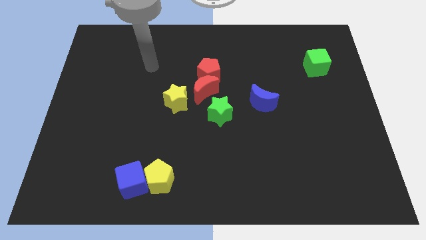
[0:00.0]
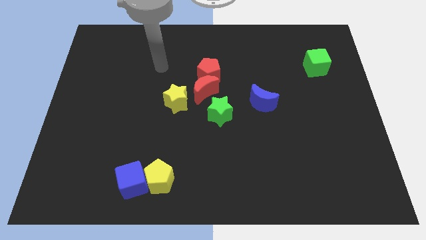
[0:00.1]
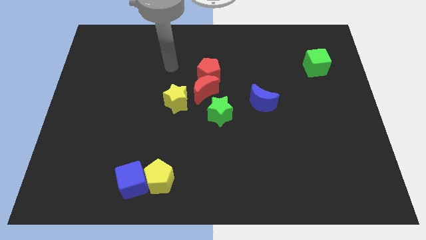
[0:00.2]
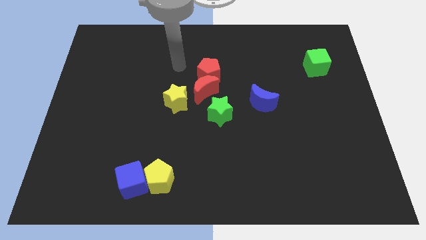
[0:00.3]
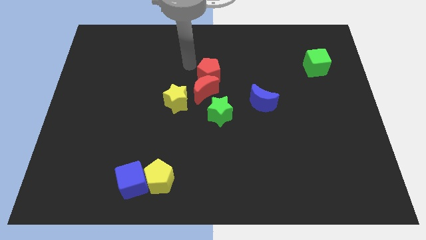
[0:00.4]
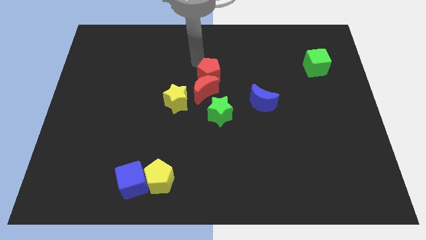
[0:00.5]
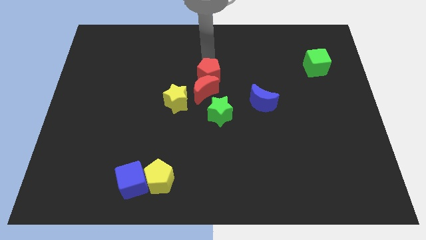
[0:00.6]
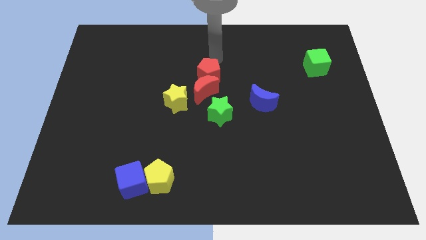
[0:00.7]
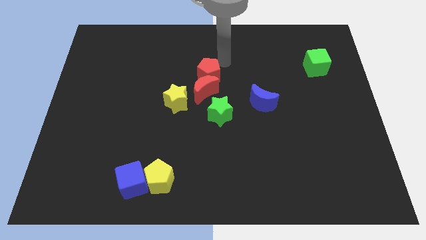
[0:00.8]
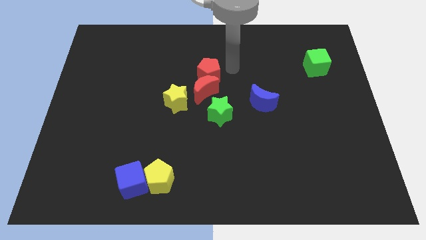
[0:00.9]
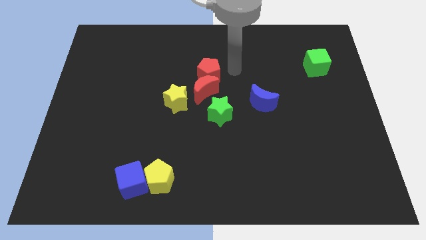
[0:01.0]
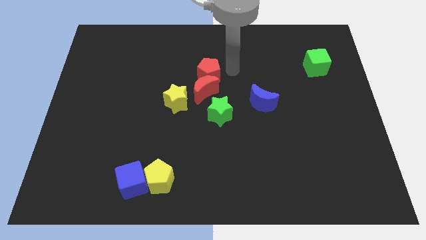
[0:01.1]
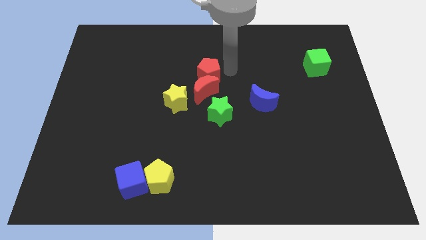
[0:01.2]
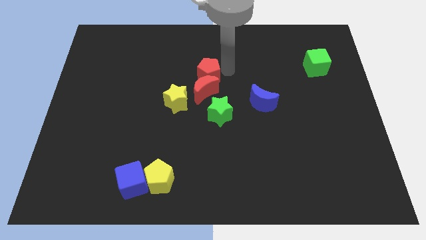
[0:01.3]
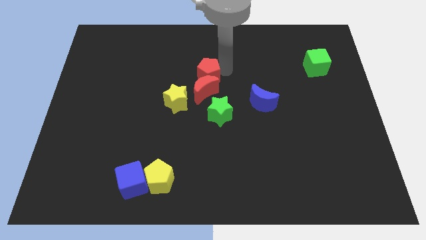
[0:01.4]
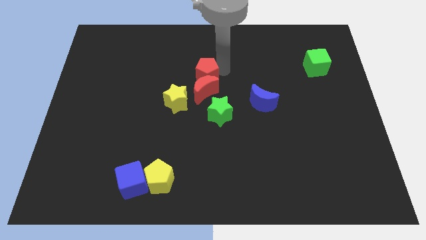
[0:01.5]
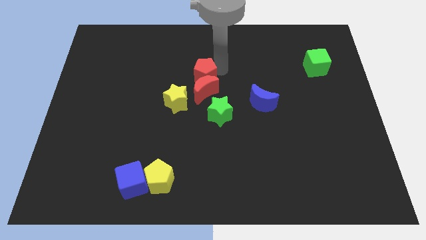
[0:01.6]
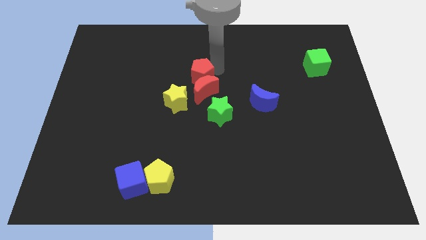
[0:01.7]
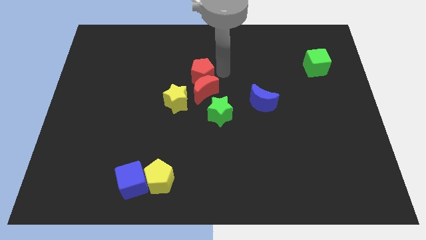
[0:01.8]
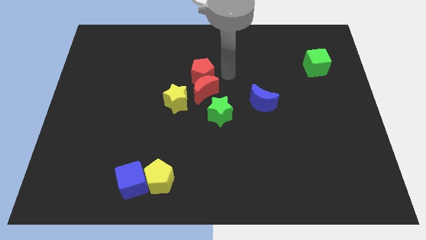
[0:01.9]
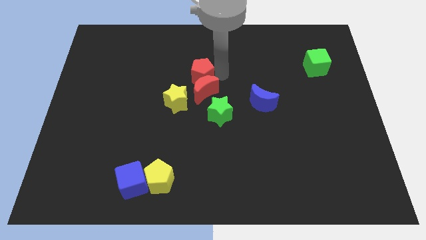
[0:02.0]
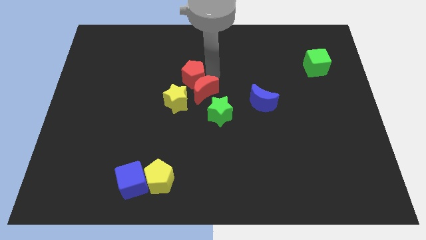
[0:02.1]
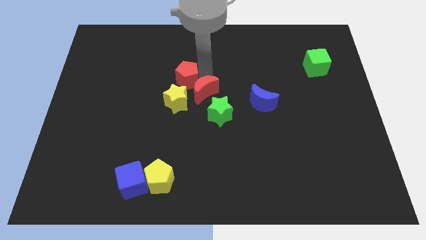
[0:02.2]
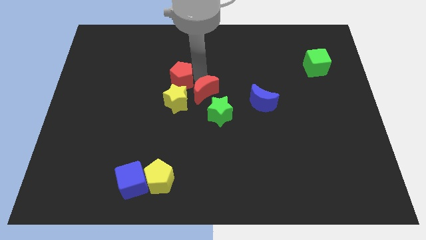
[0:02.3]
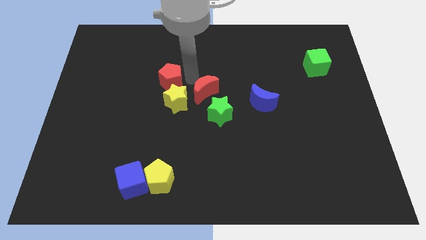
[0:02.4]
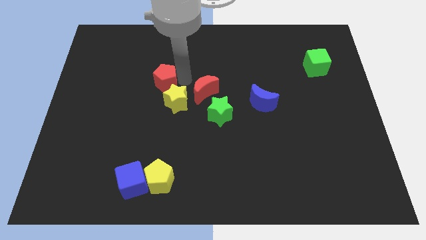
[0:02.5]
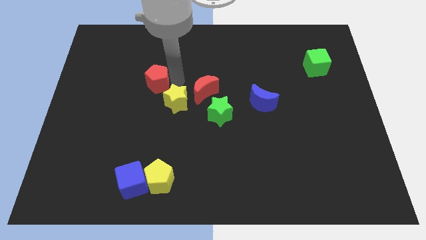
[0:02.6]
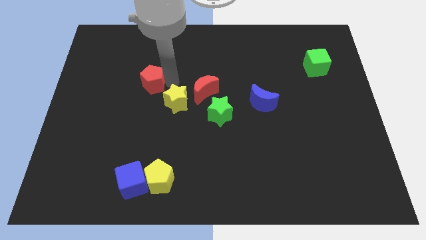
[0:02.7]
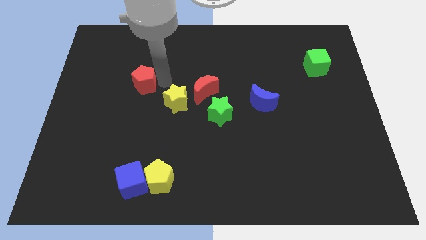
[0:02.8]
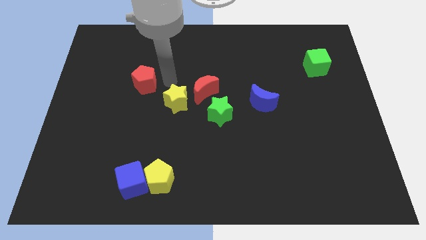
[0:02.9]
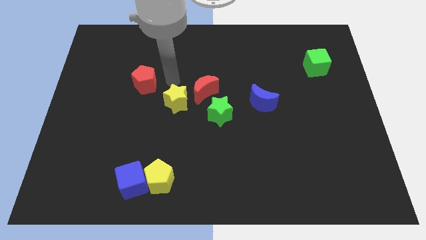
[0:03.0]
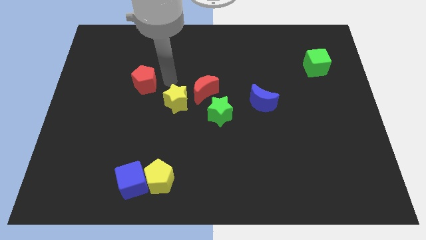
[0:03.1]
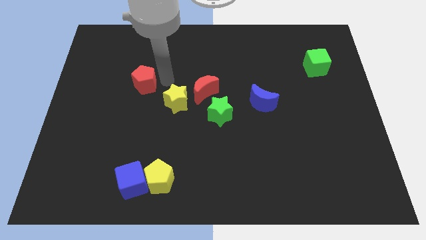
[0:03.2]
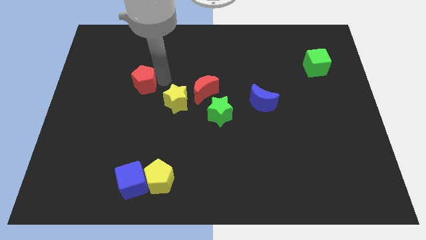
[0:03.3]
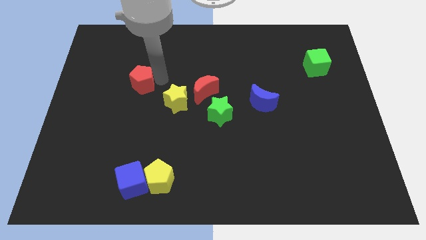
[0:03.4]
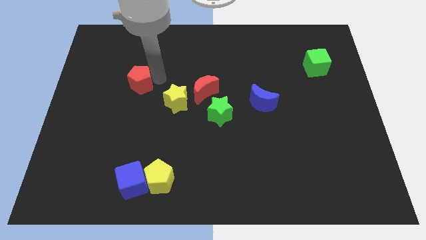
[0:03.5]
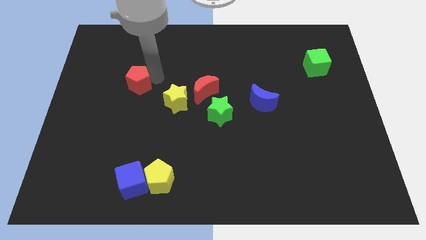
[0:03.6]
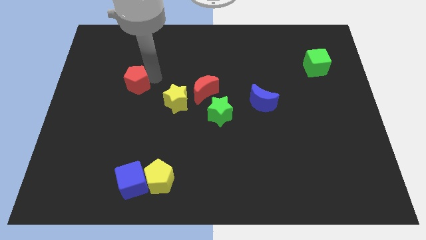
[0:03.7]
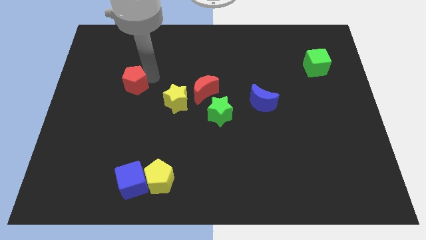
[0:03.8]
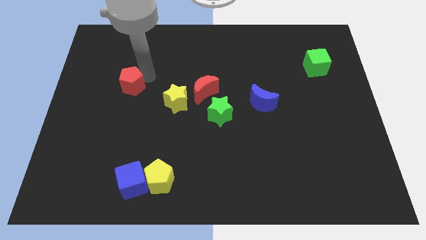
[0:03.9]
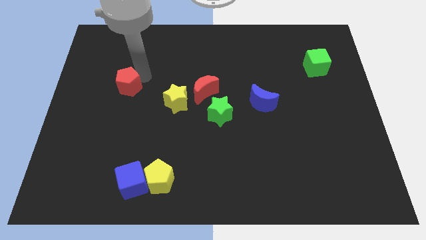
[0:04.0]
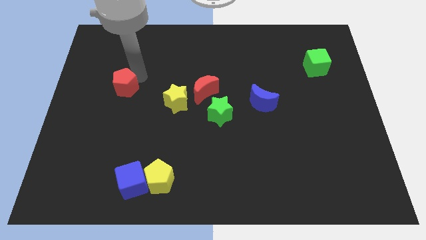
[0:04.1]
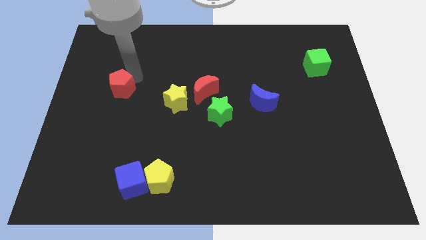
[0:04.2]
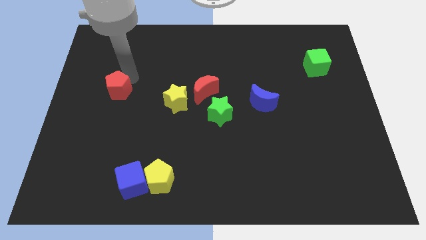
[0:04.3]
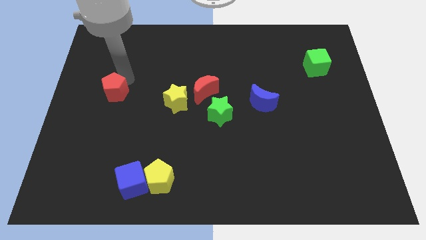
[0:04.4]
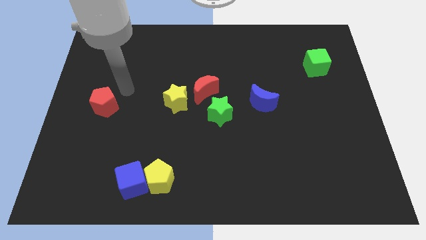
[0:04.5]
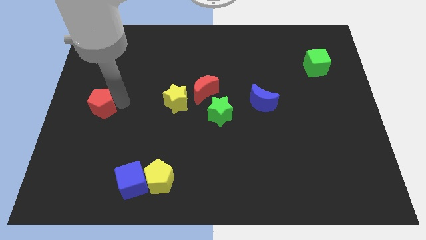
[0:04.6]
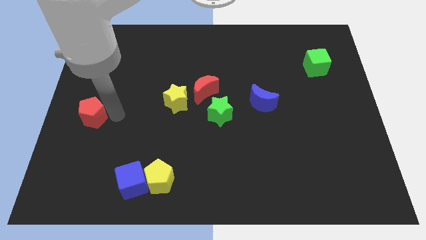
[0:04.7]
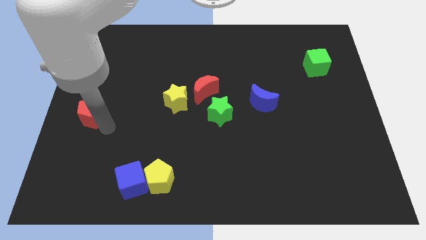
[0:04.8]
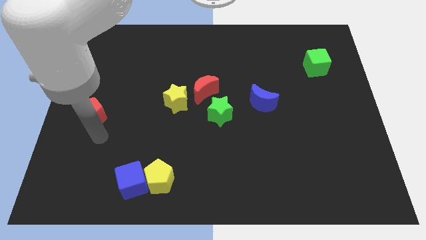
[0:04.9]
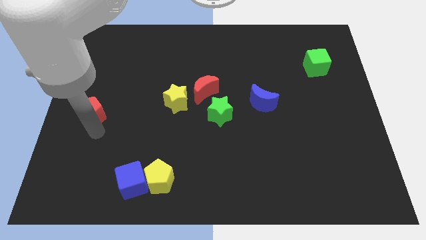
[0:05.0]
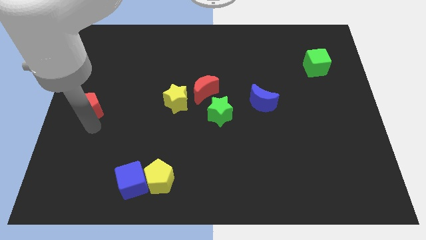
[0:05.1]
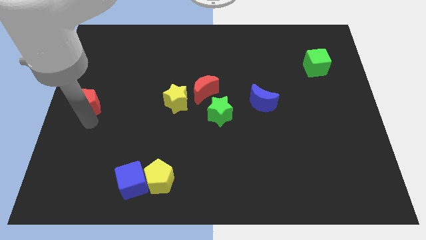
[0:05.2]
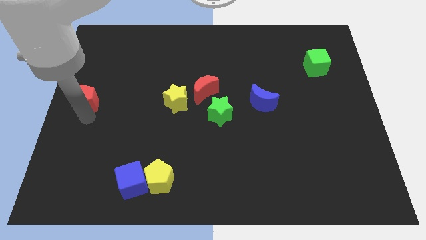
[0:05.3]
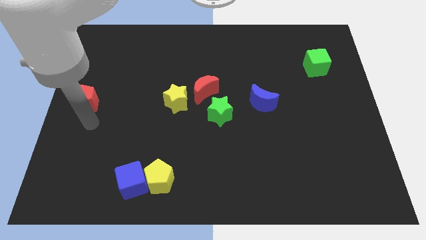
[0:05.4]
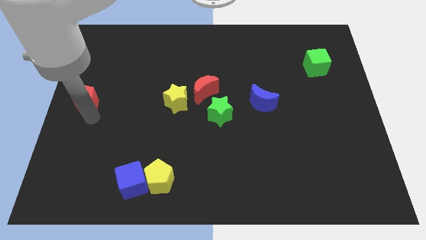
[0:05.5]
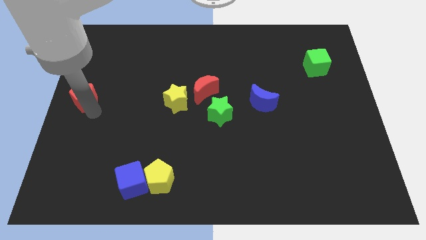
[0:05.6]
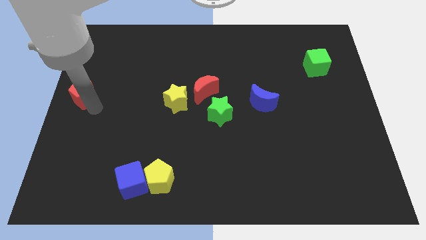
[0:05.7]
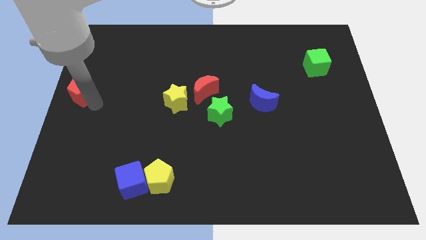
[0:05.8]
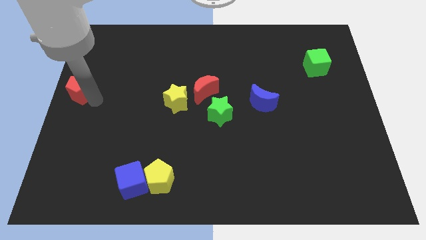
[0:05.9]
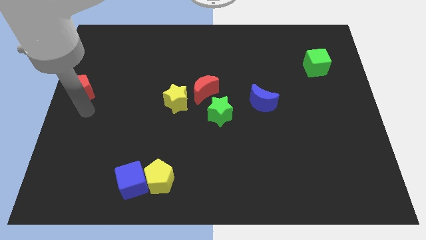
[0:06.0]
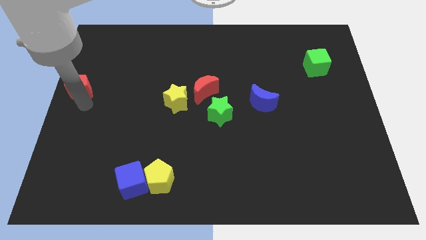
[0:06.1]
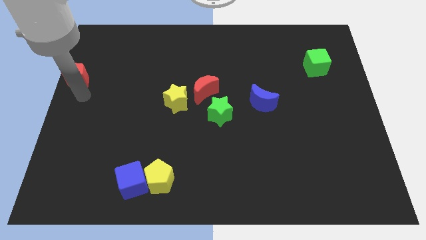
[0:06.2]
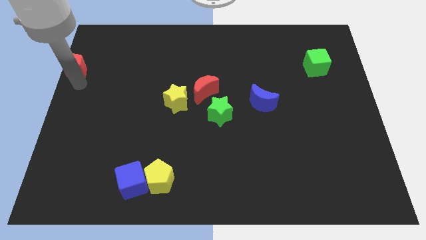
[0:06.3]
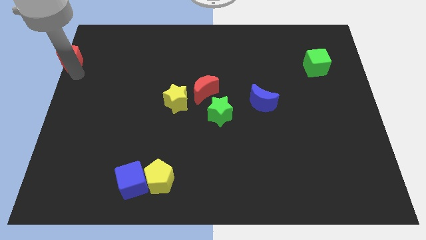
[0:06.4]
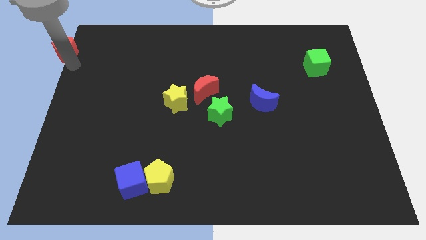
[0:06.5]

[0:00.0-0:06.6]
put the red pentagon to the top left corner
